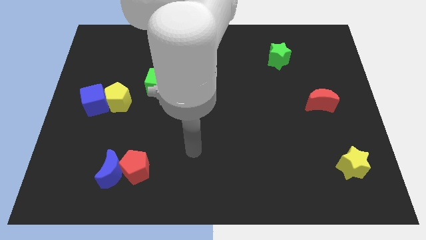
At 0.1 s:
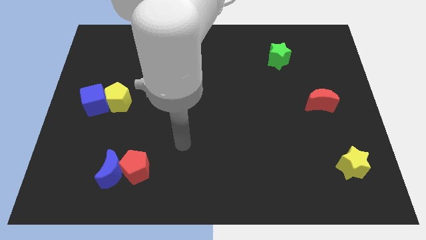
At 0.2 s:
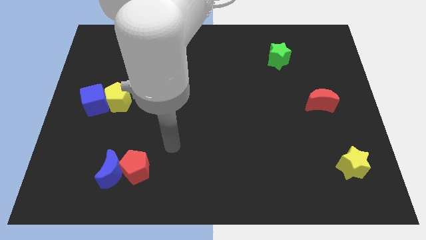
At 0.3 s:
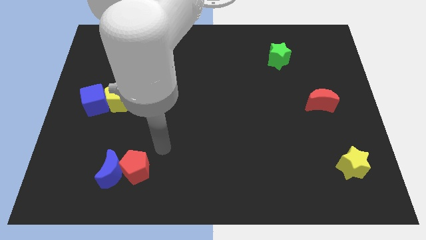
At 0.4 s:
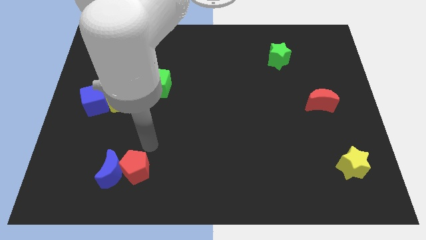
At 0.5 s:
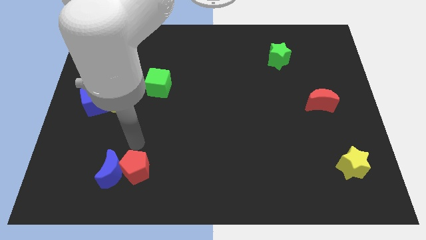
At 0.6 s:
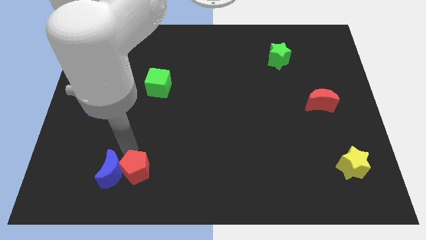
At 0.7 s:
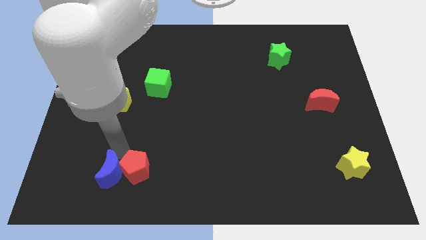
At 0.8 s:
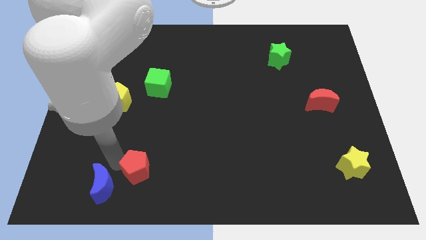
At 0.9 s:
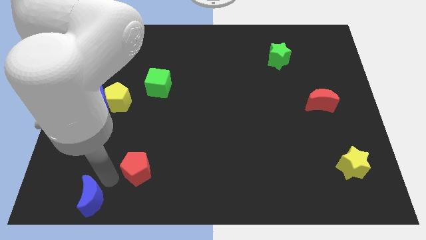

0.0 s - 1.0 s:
separate the red pentagon from the blue moon

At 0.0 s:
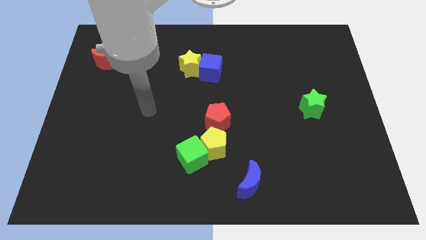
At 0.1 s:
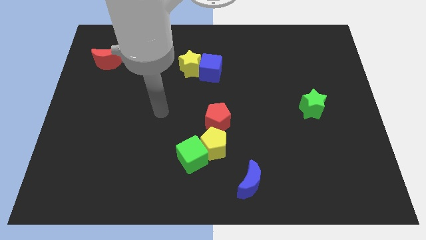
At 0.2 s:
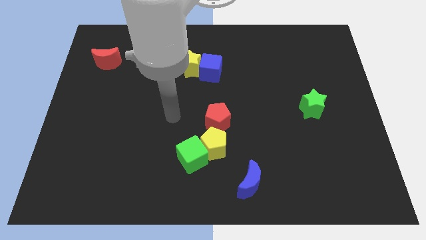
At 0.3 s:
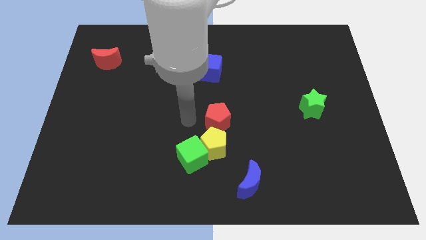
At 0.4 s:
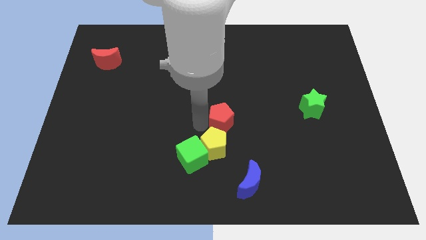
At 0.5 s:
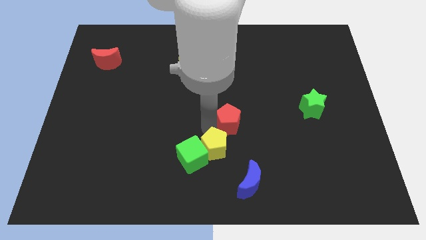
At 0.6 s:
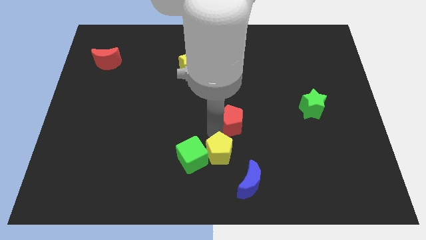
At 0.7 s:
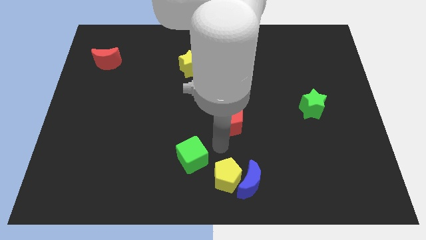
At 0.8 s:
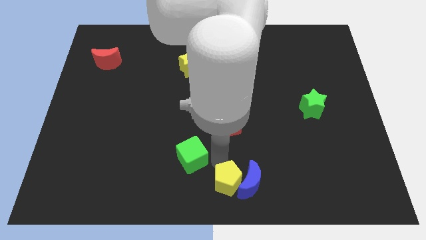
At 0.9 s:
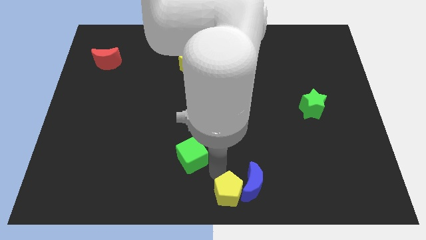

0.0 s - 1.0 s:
separate the green cube from the yellow pentagon

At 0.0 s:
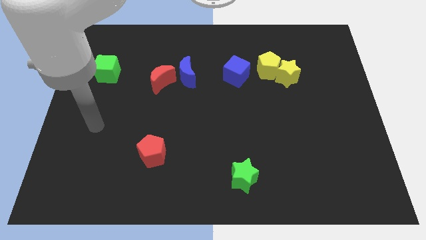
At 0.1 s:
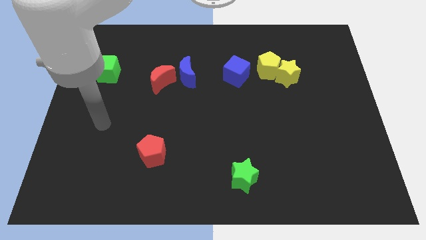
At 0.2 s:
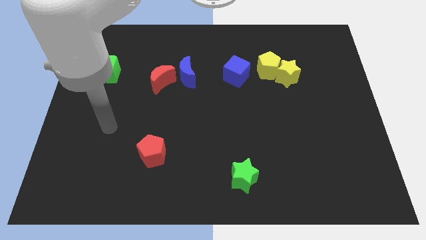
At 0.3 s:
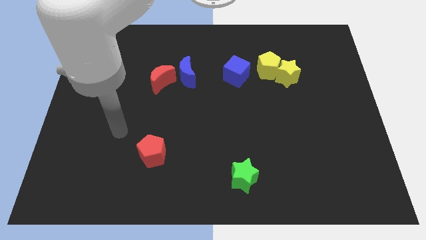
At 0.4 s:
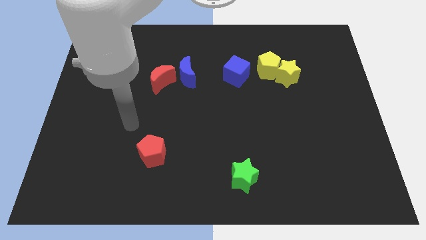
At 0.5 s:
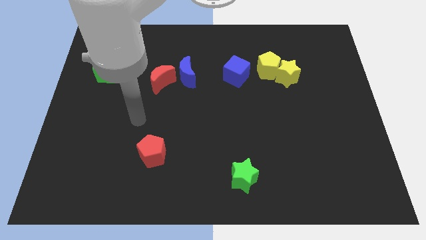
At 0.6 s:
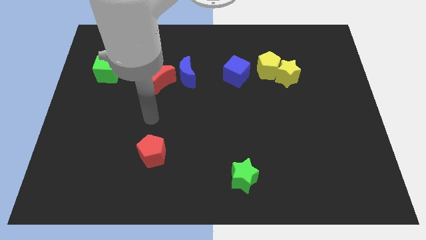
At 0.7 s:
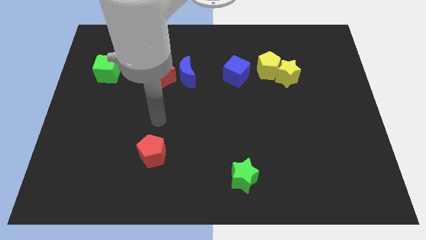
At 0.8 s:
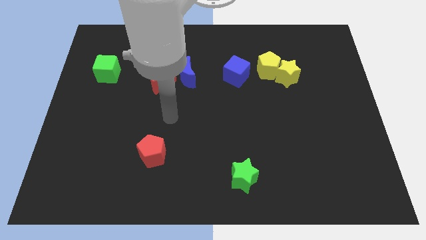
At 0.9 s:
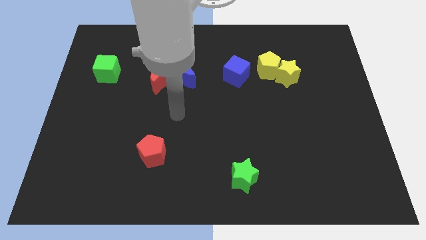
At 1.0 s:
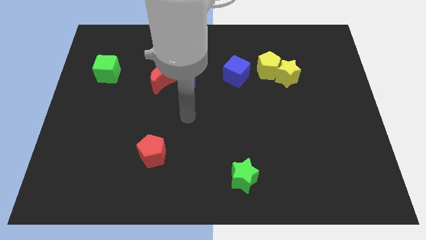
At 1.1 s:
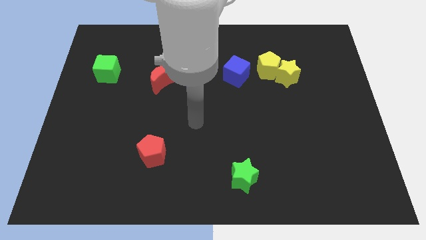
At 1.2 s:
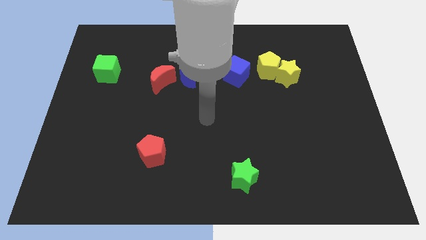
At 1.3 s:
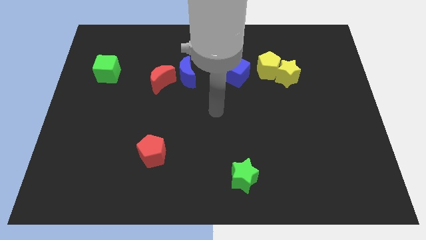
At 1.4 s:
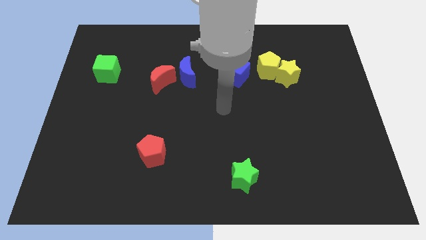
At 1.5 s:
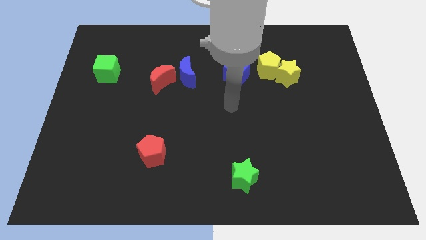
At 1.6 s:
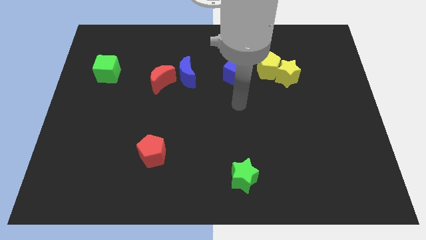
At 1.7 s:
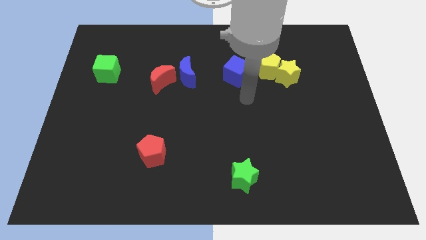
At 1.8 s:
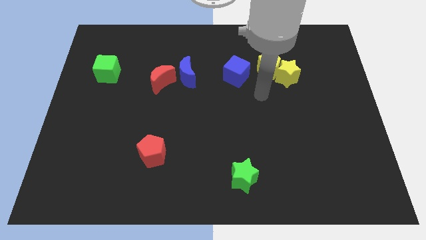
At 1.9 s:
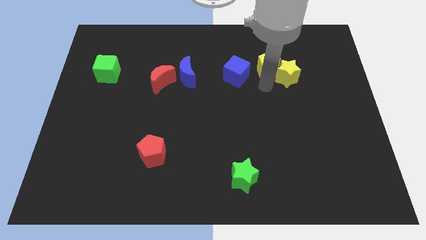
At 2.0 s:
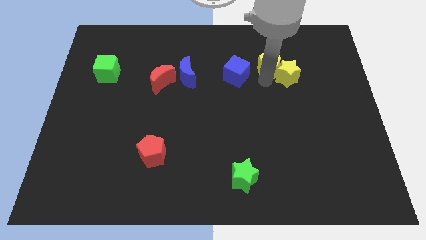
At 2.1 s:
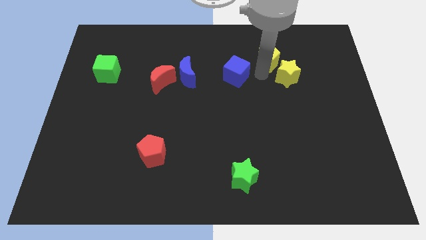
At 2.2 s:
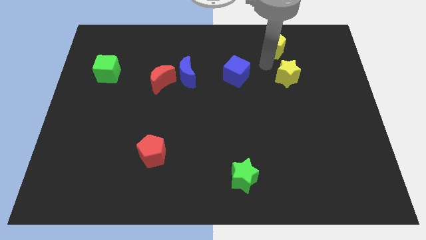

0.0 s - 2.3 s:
move the yellow star away from the yellow pentagon

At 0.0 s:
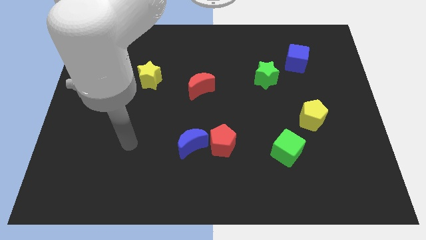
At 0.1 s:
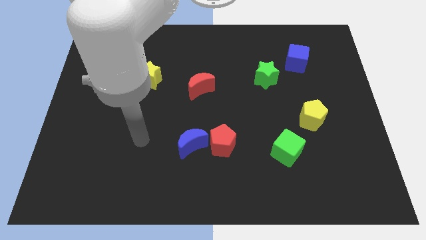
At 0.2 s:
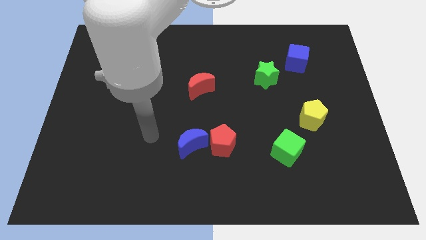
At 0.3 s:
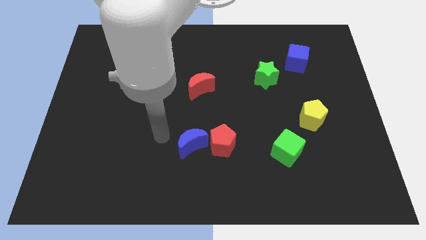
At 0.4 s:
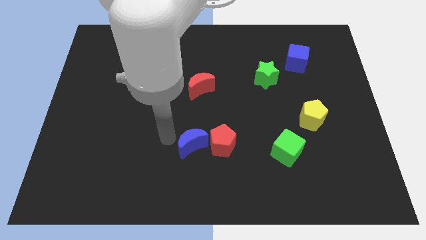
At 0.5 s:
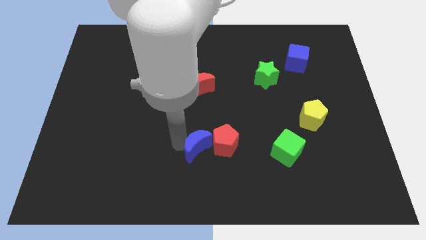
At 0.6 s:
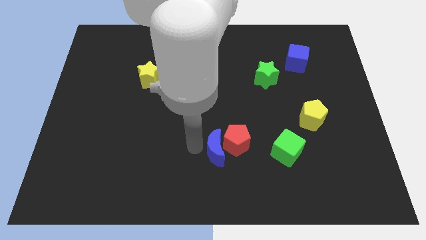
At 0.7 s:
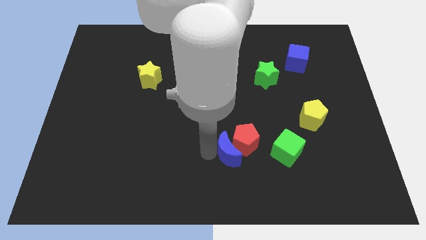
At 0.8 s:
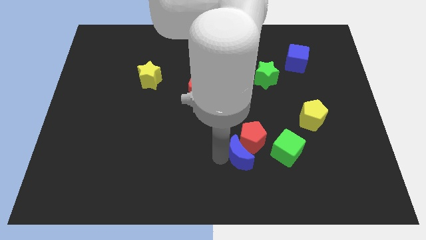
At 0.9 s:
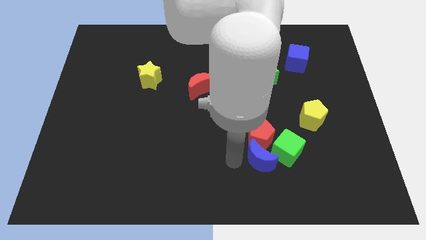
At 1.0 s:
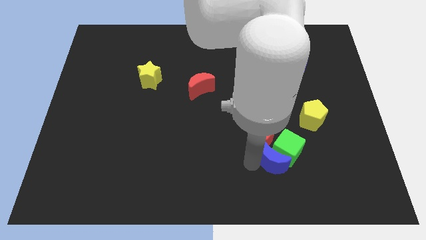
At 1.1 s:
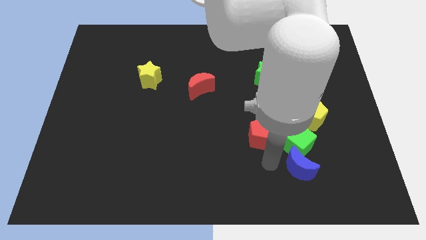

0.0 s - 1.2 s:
pull the red pentagon apart from the blue moon

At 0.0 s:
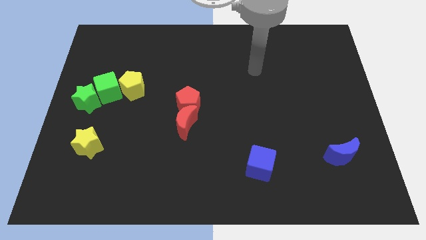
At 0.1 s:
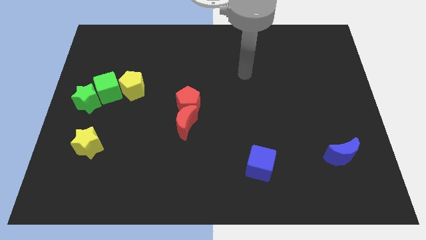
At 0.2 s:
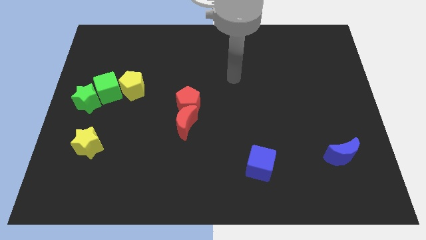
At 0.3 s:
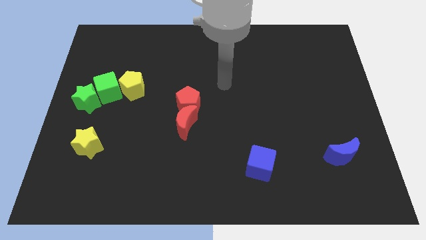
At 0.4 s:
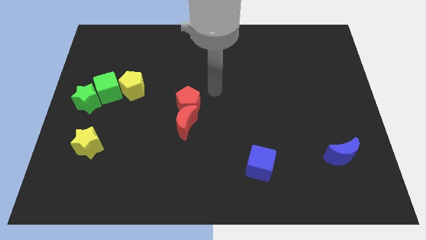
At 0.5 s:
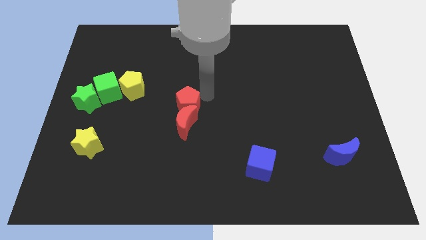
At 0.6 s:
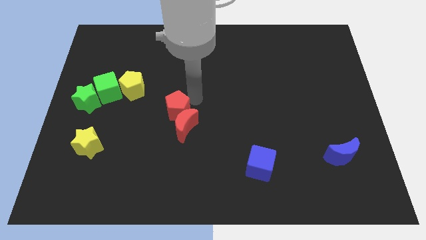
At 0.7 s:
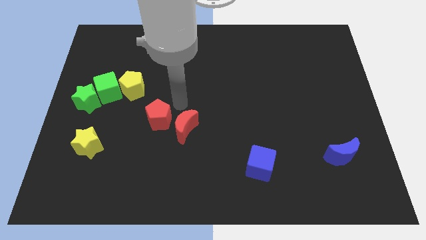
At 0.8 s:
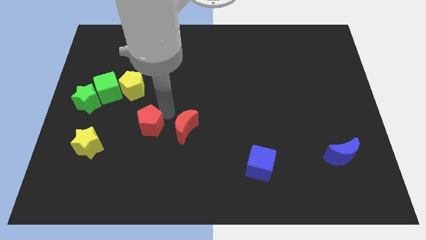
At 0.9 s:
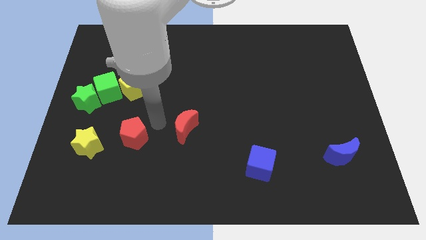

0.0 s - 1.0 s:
move the red moon away from the red pentagon

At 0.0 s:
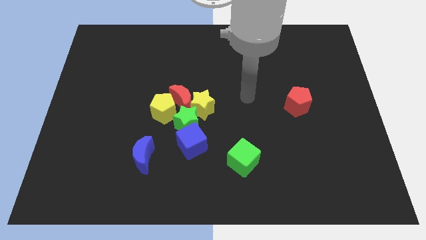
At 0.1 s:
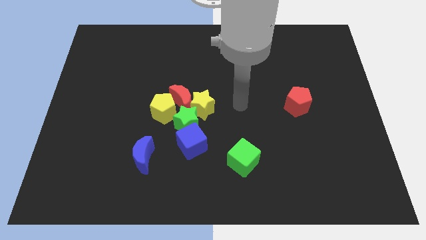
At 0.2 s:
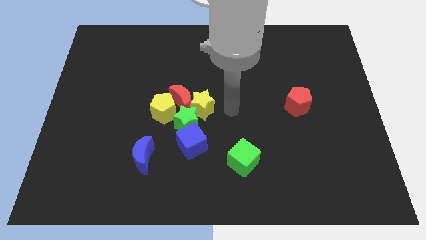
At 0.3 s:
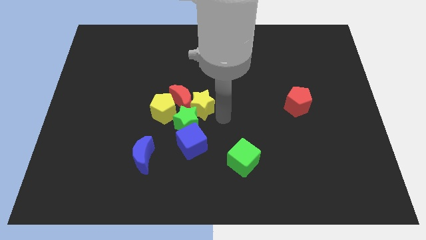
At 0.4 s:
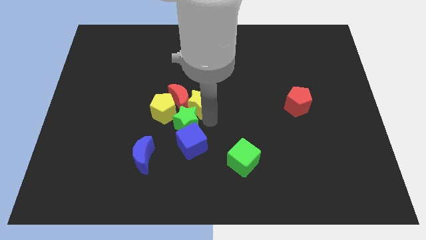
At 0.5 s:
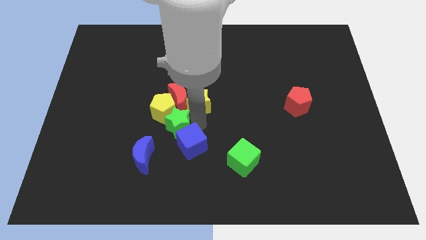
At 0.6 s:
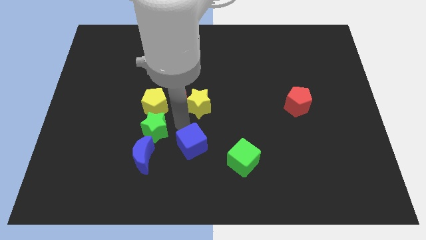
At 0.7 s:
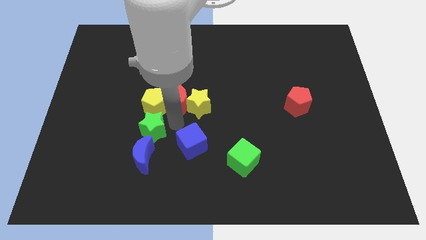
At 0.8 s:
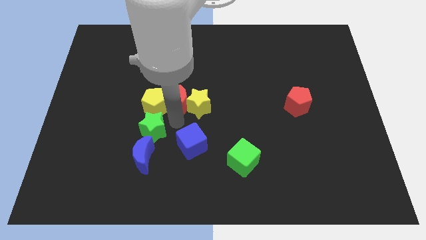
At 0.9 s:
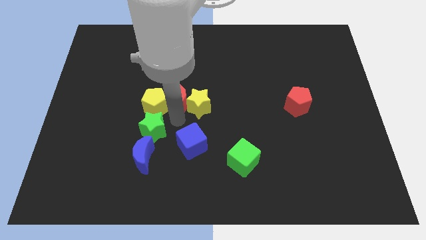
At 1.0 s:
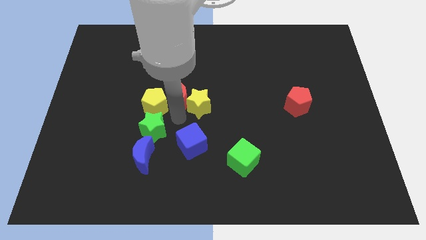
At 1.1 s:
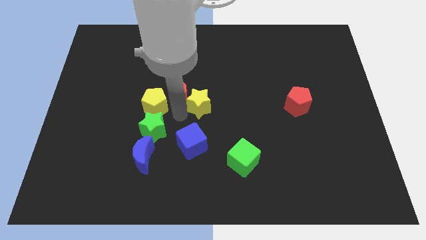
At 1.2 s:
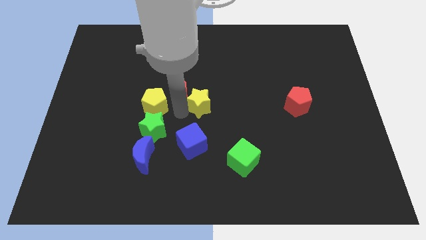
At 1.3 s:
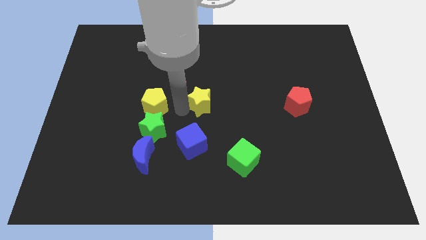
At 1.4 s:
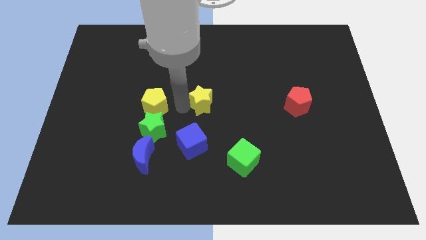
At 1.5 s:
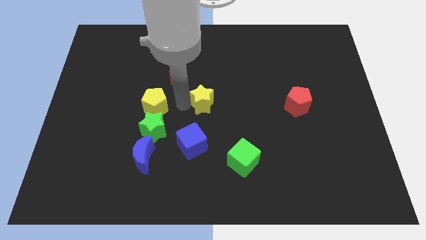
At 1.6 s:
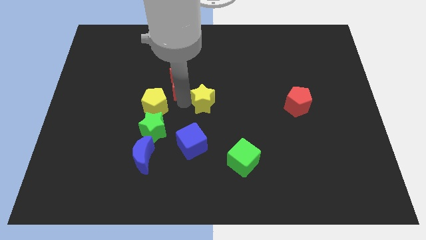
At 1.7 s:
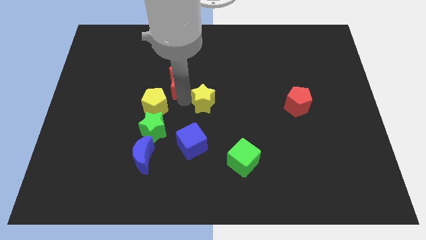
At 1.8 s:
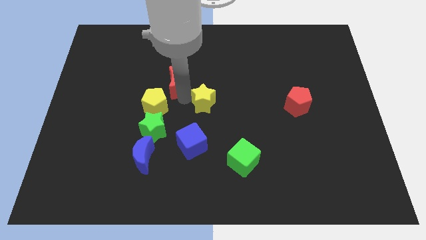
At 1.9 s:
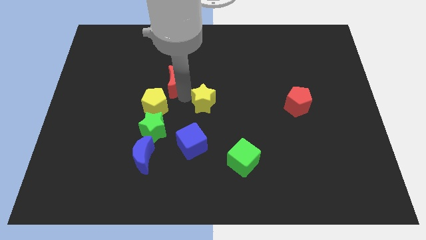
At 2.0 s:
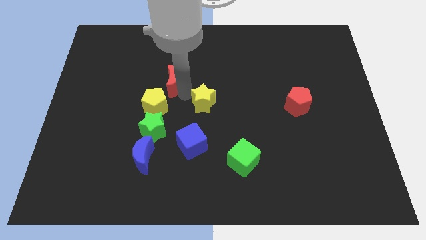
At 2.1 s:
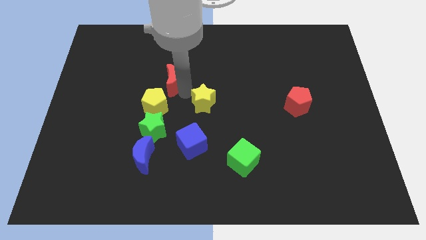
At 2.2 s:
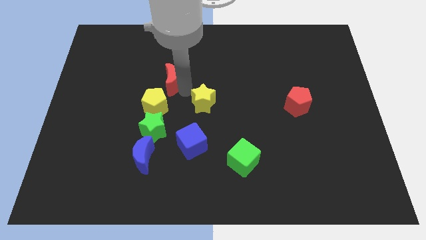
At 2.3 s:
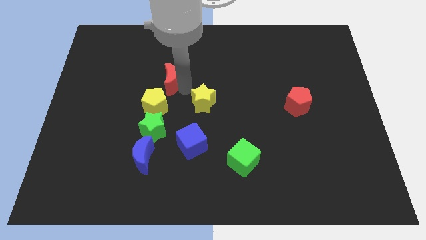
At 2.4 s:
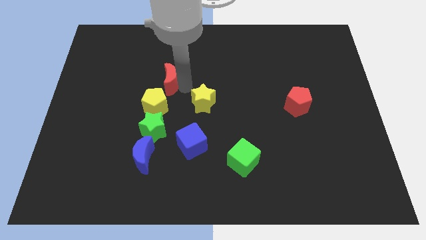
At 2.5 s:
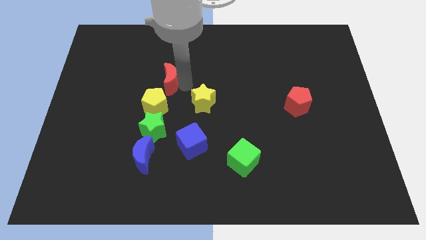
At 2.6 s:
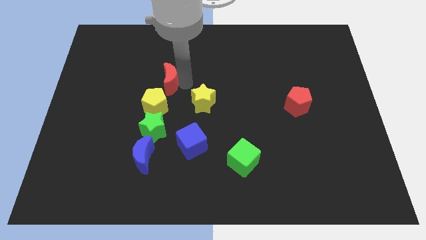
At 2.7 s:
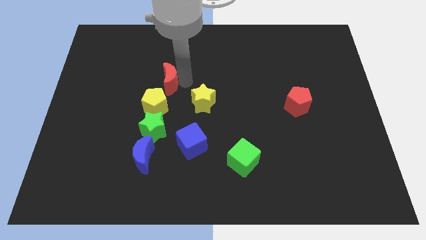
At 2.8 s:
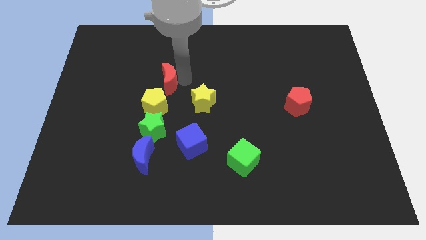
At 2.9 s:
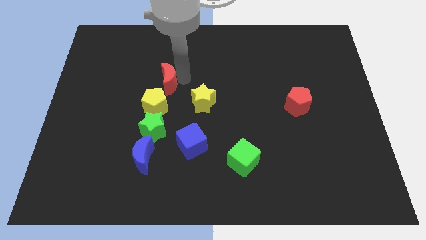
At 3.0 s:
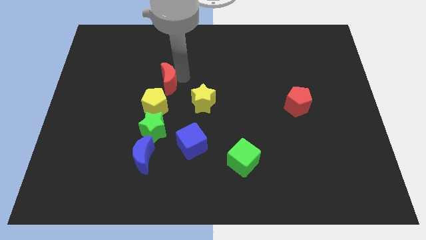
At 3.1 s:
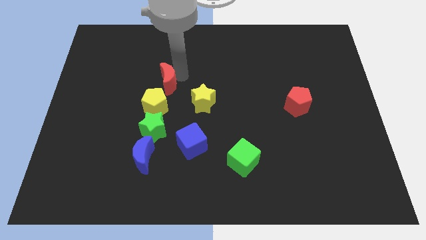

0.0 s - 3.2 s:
move the red moon away from the clump
